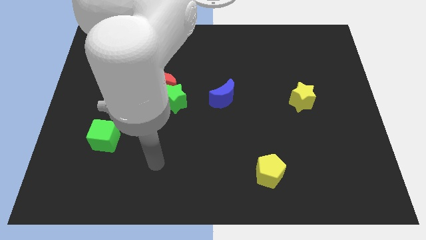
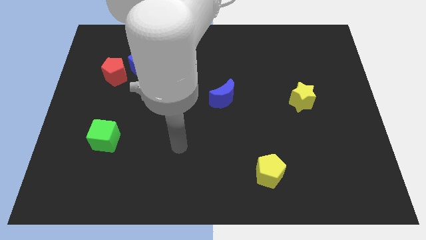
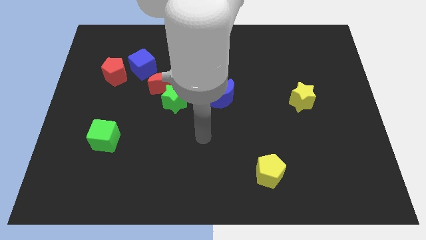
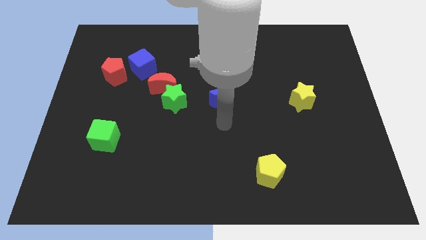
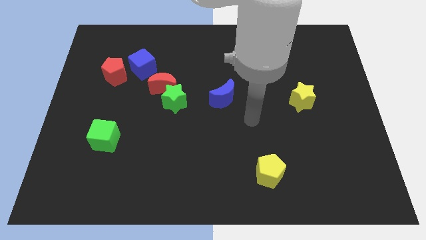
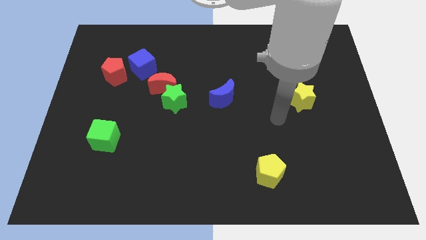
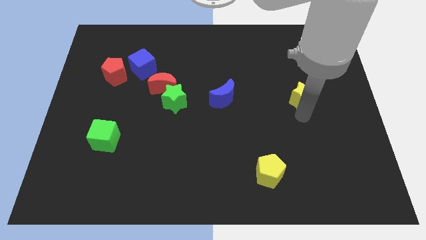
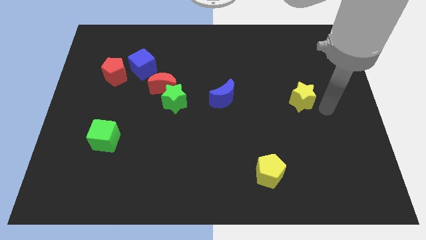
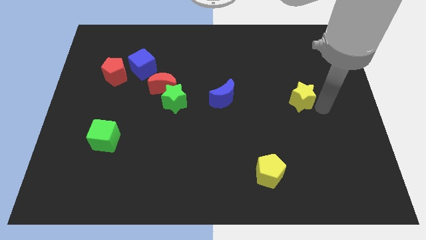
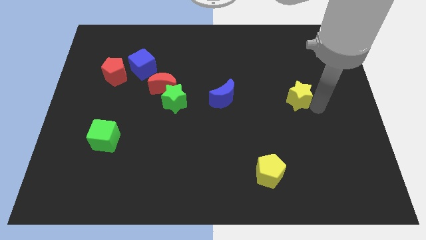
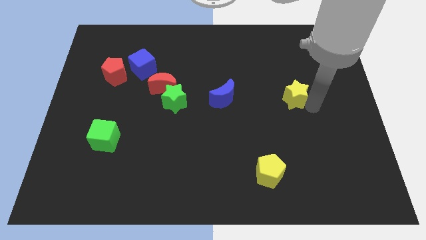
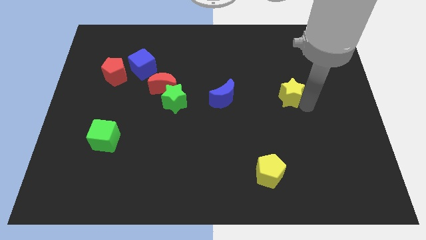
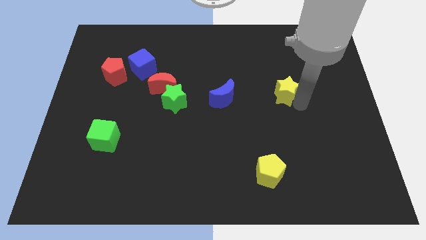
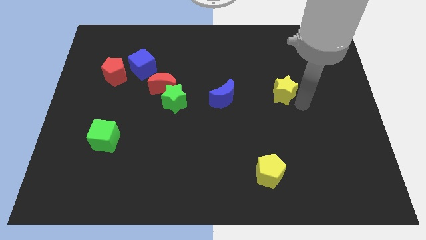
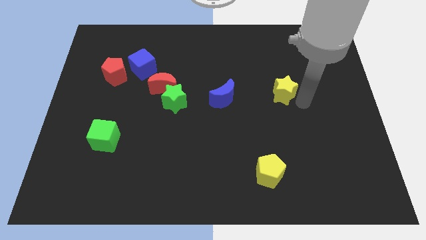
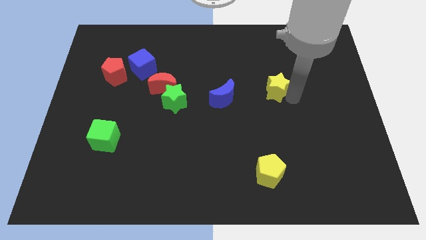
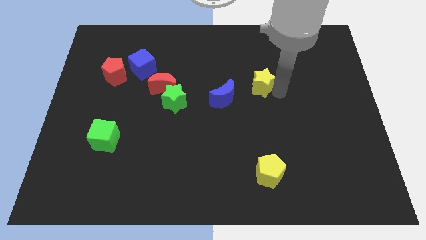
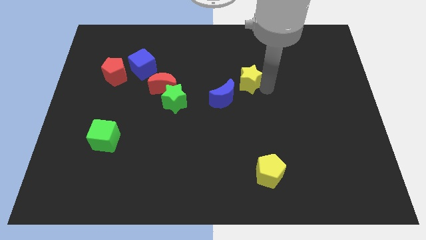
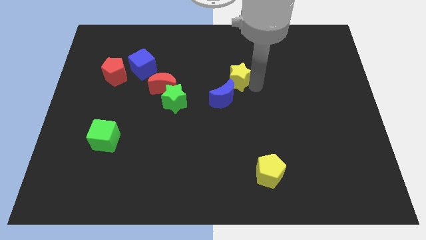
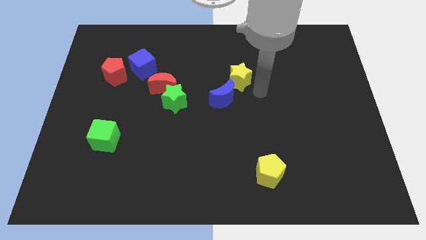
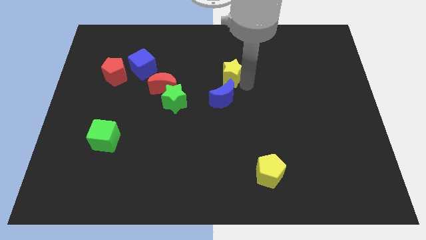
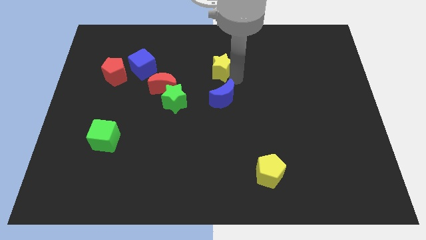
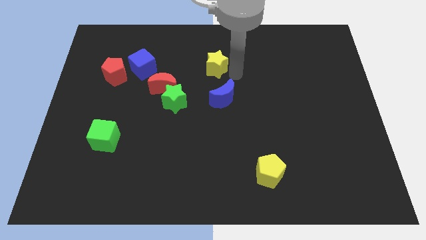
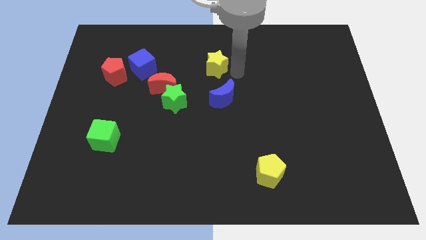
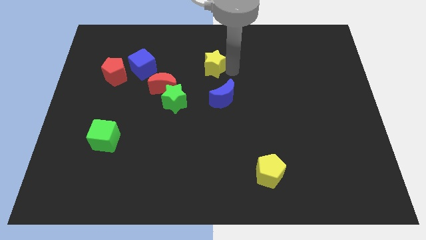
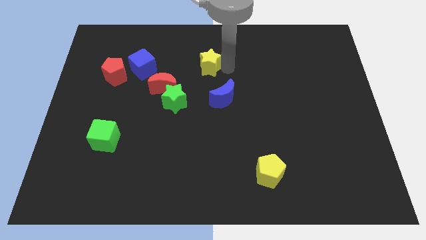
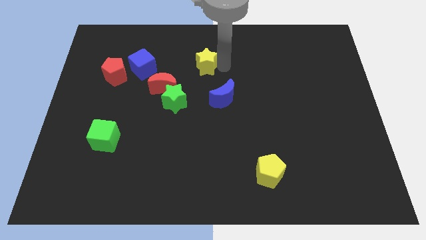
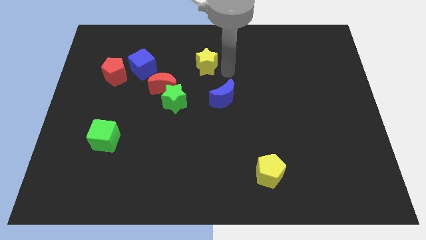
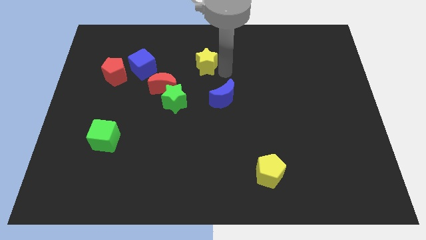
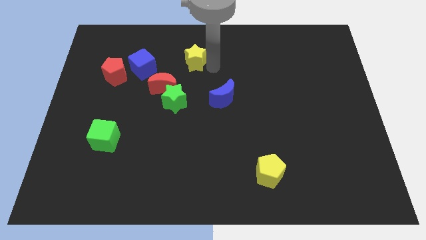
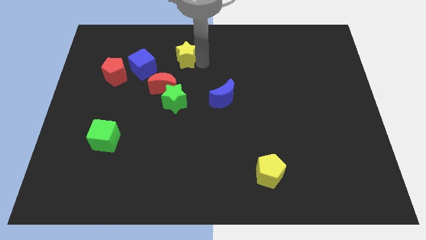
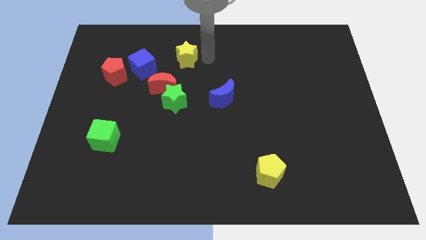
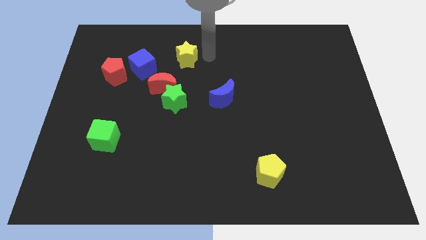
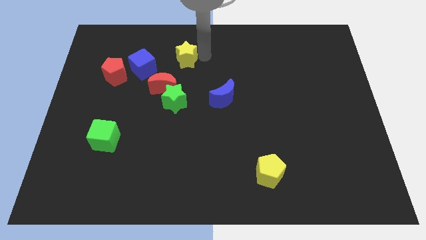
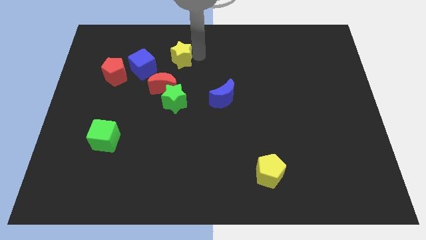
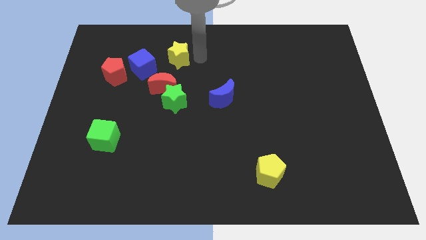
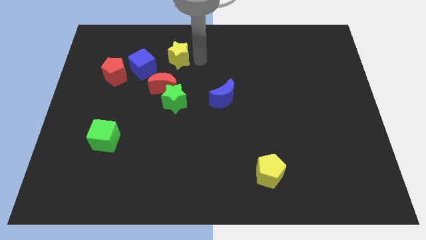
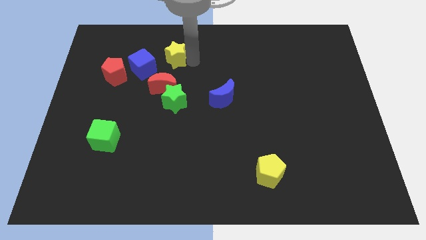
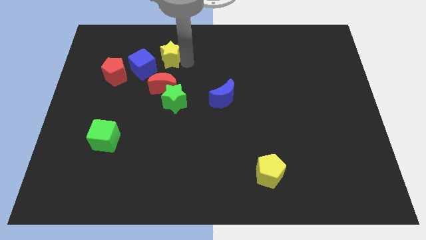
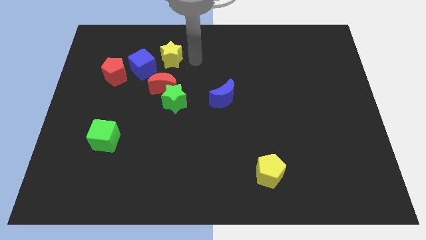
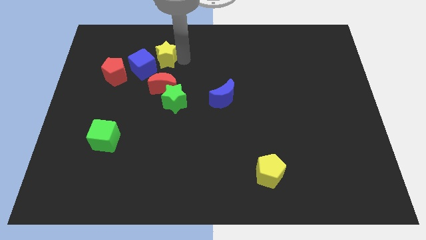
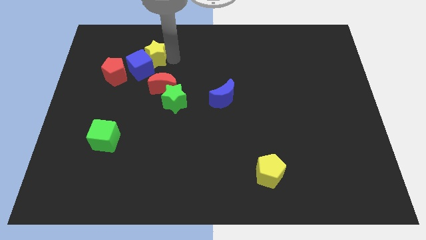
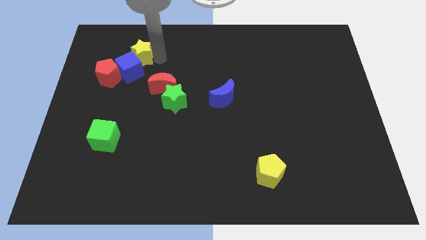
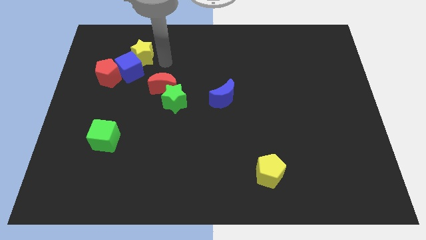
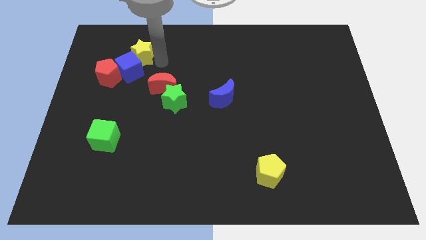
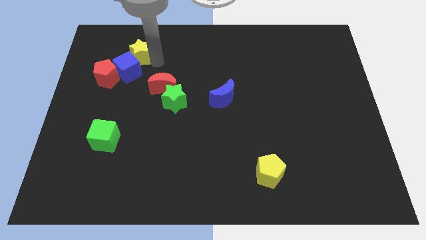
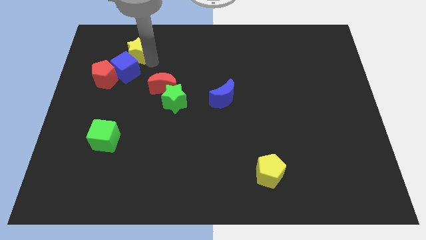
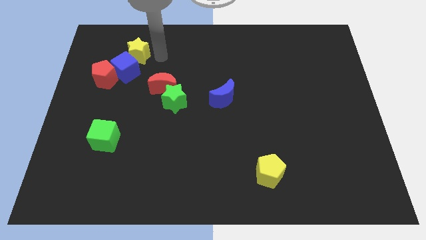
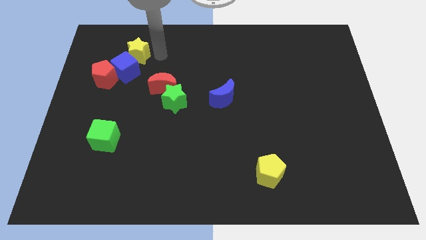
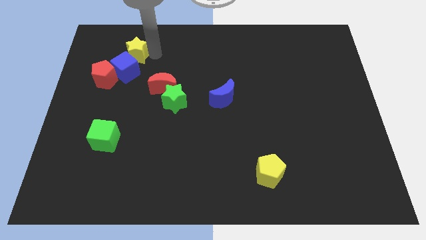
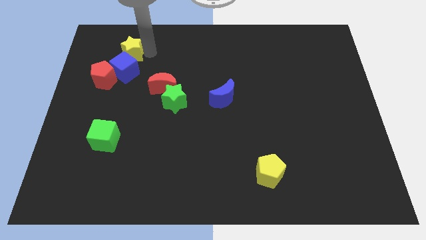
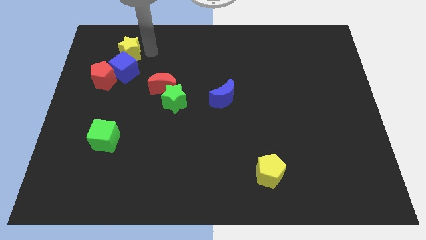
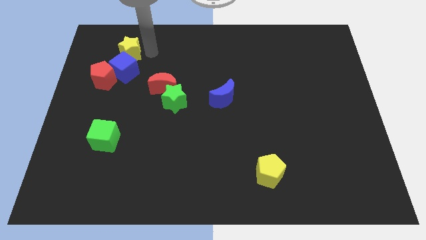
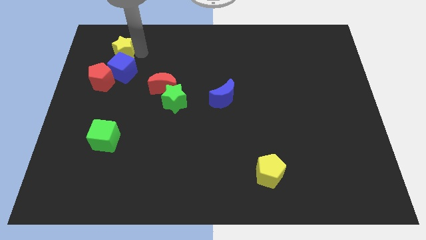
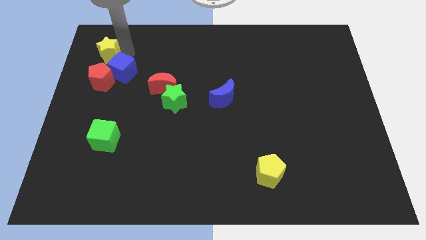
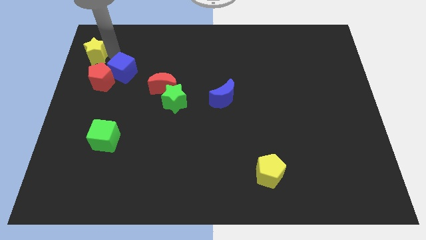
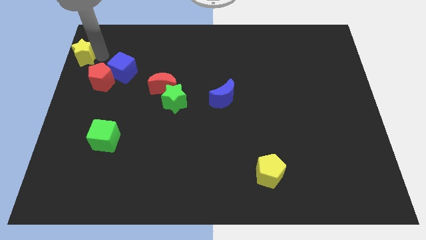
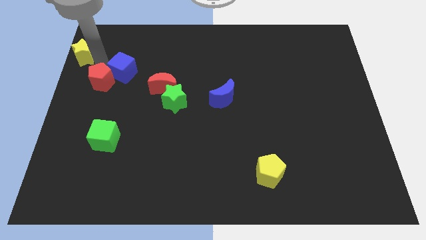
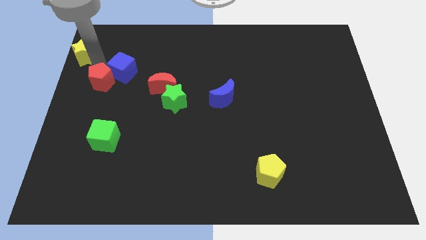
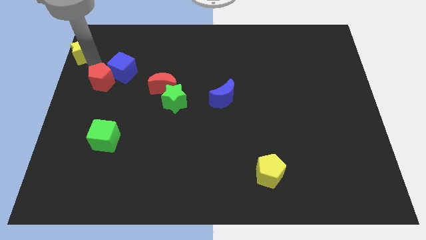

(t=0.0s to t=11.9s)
move the yellow star to the upper left corner
